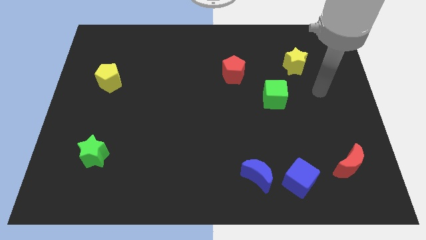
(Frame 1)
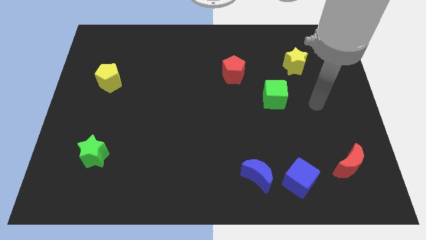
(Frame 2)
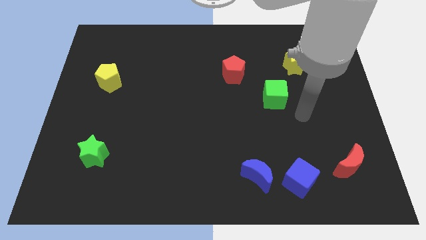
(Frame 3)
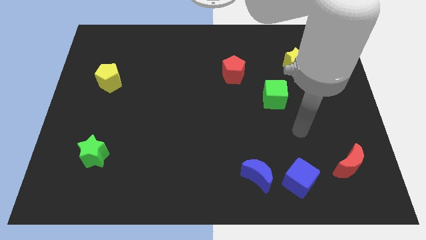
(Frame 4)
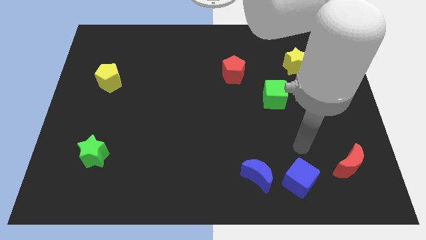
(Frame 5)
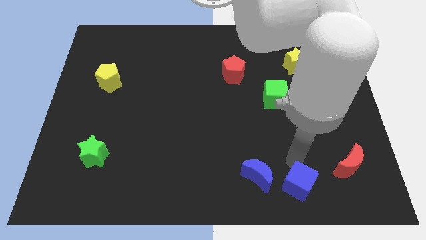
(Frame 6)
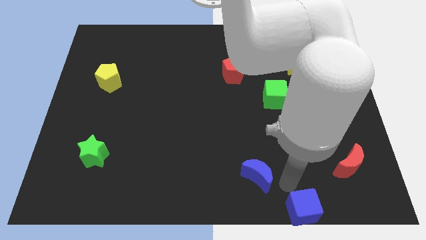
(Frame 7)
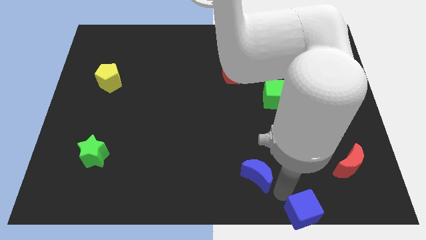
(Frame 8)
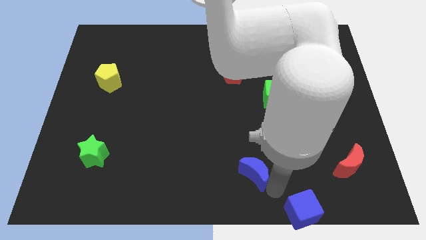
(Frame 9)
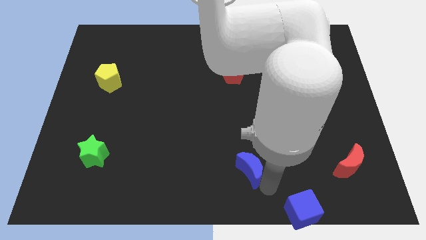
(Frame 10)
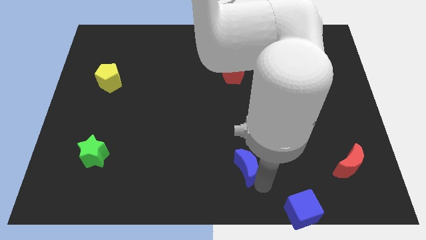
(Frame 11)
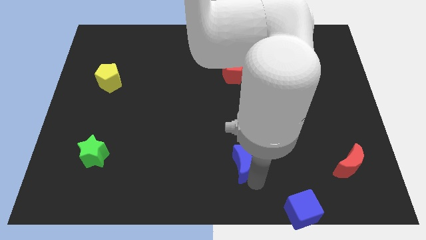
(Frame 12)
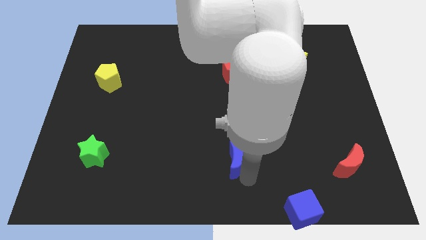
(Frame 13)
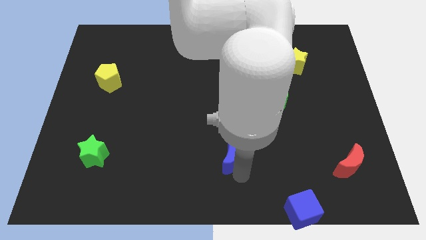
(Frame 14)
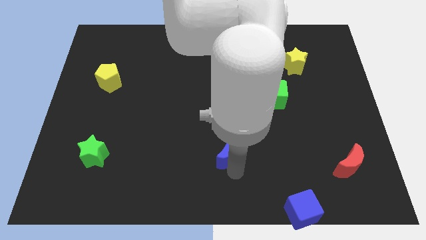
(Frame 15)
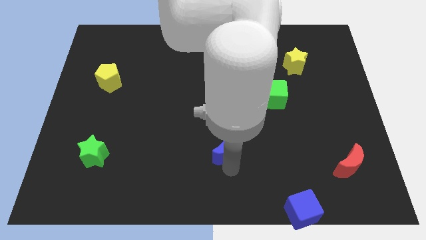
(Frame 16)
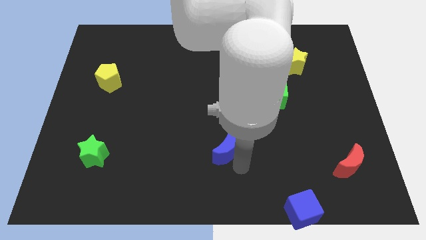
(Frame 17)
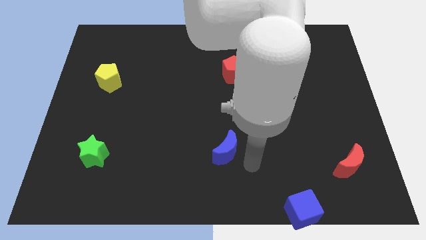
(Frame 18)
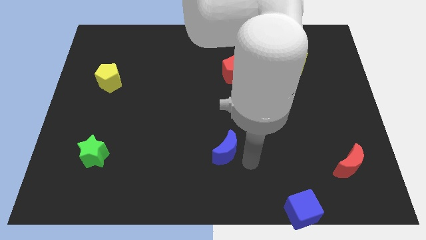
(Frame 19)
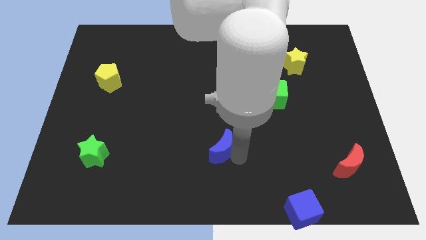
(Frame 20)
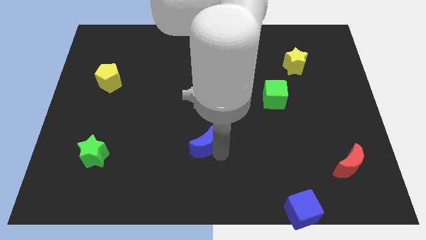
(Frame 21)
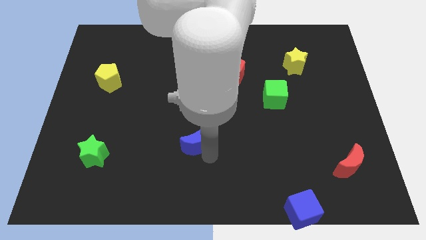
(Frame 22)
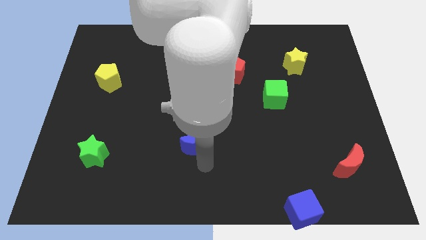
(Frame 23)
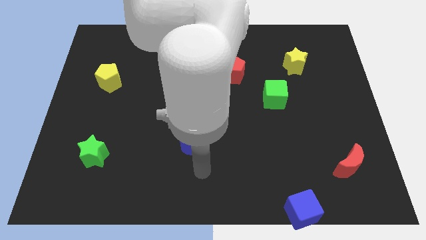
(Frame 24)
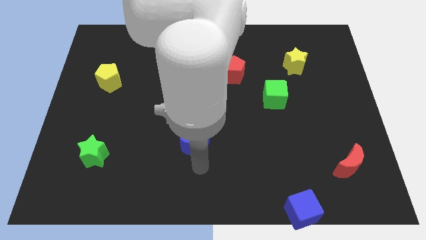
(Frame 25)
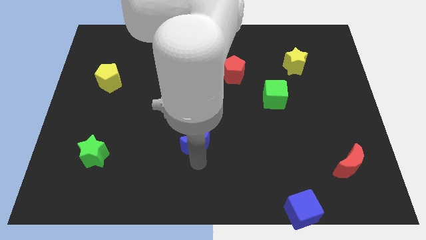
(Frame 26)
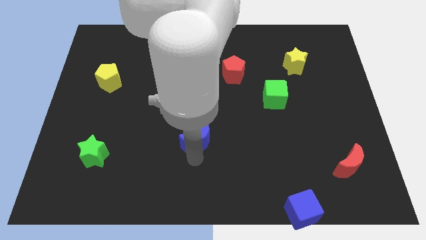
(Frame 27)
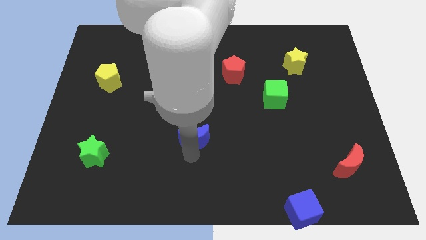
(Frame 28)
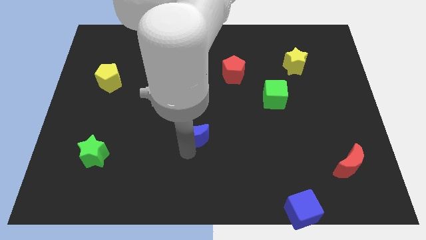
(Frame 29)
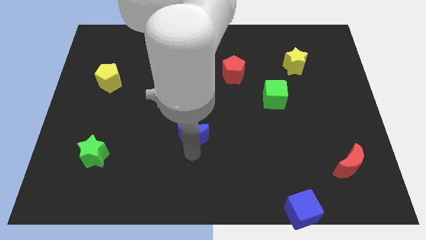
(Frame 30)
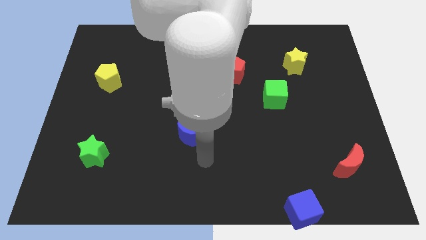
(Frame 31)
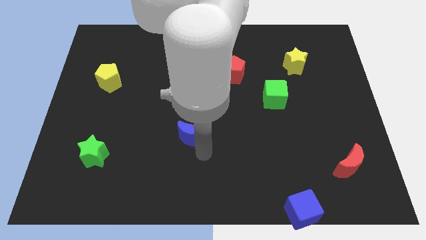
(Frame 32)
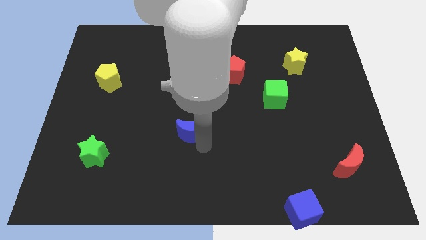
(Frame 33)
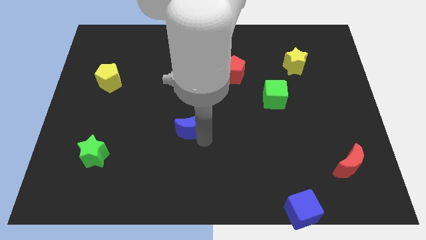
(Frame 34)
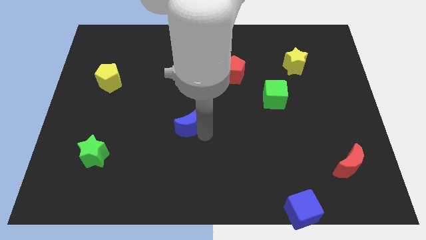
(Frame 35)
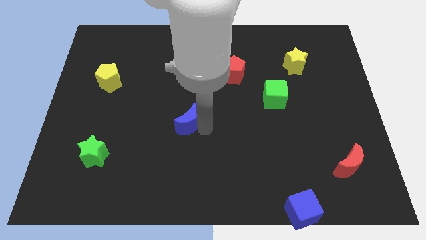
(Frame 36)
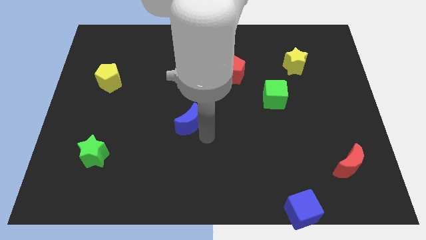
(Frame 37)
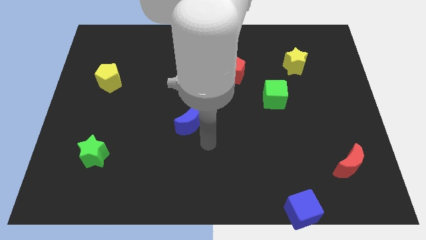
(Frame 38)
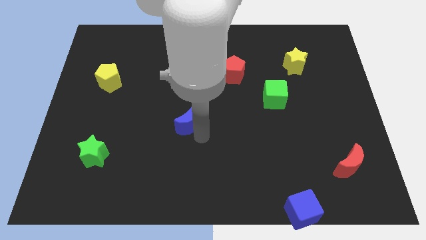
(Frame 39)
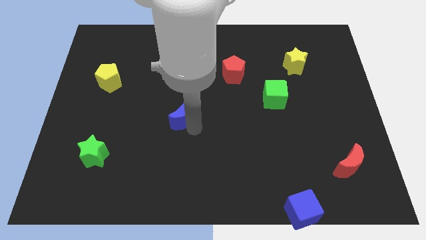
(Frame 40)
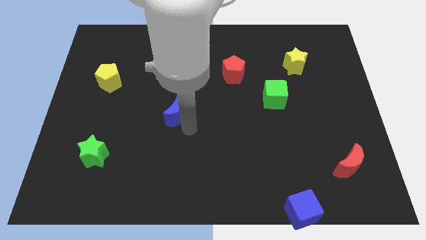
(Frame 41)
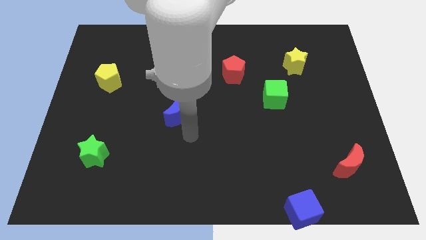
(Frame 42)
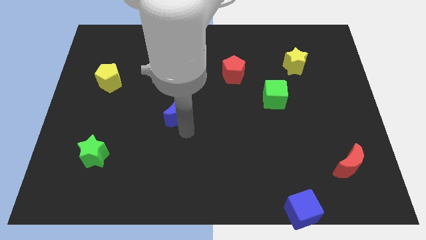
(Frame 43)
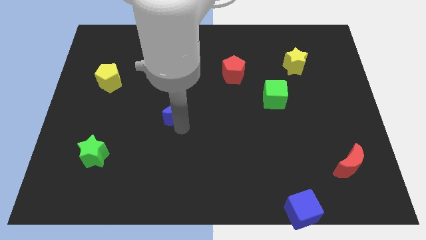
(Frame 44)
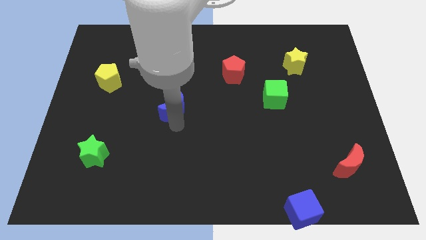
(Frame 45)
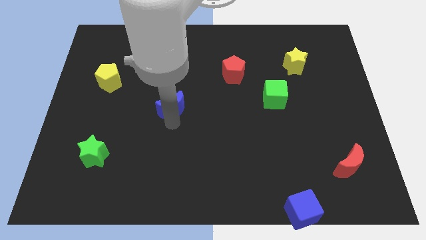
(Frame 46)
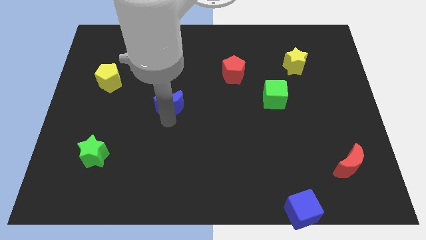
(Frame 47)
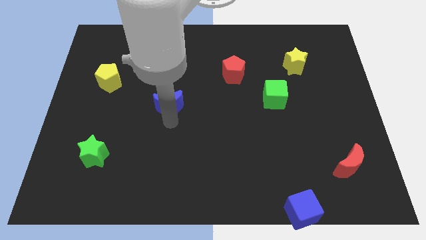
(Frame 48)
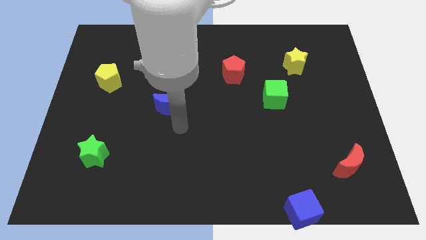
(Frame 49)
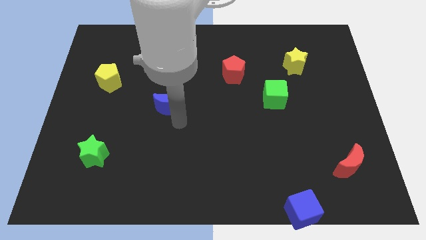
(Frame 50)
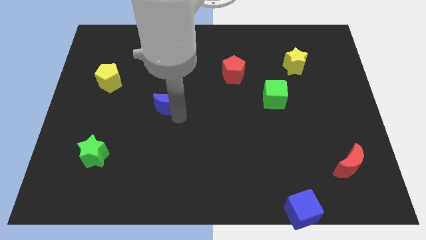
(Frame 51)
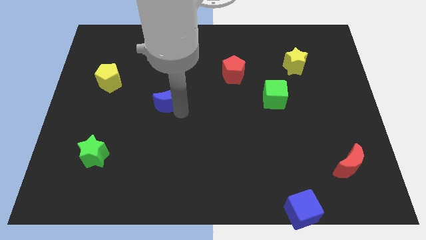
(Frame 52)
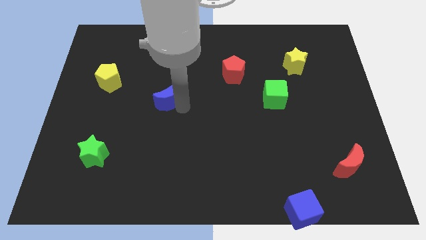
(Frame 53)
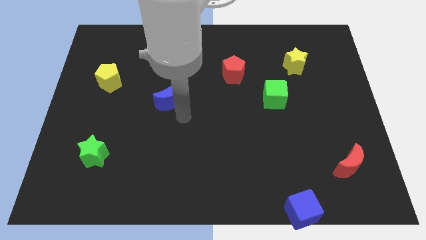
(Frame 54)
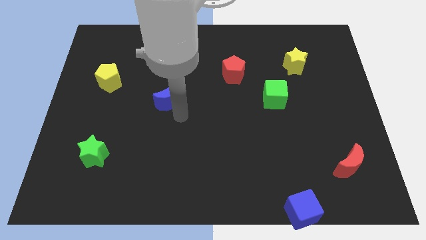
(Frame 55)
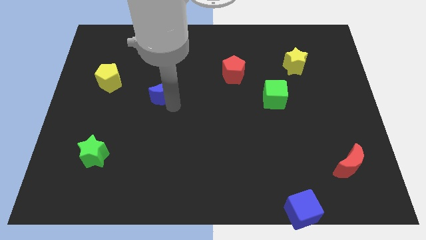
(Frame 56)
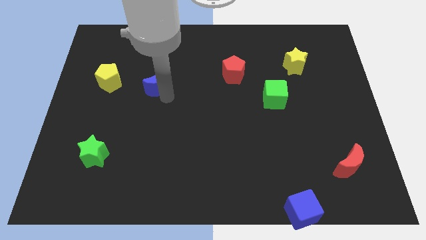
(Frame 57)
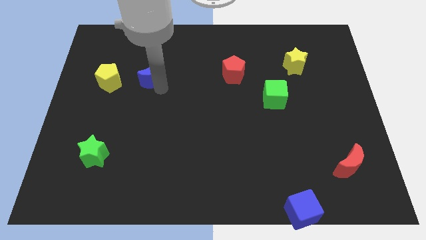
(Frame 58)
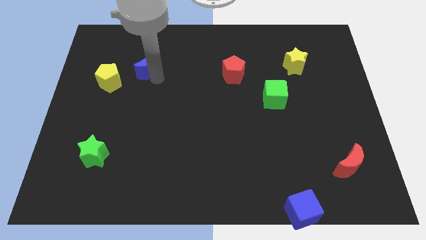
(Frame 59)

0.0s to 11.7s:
push the blue moon to the top right side of the yellow pentagon
